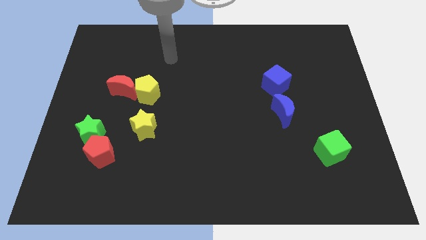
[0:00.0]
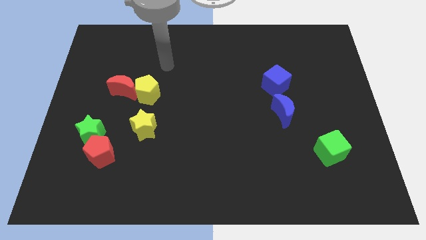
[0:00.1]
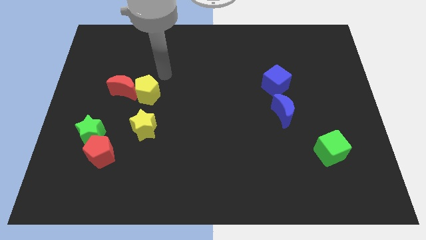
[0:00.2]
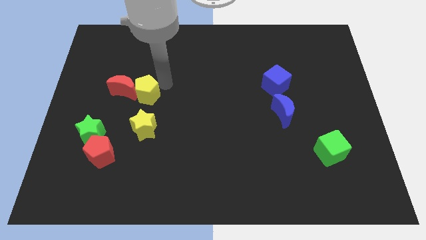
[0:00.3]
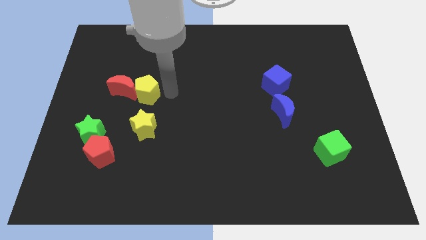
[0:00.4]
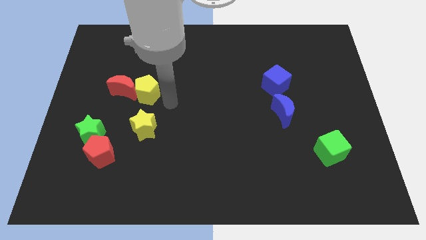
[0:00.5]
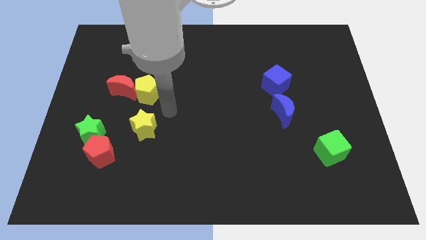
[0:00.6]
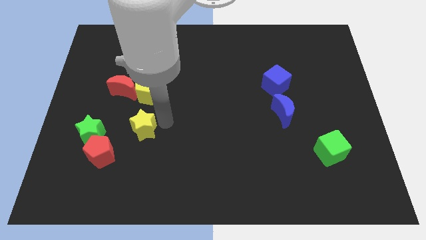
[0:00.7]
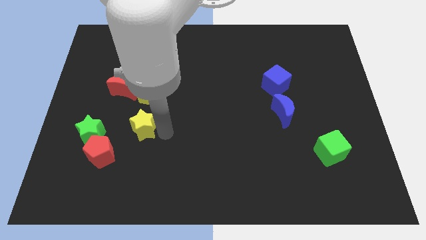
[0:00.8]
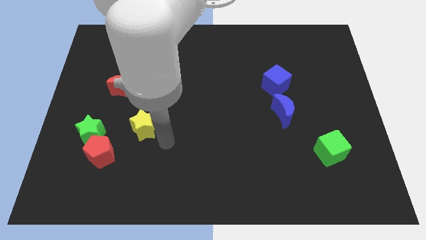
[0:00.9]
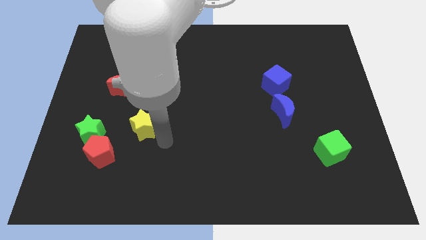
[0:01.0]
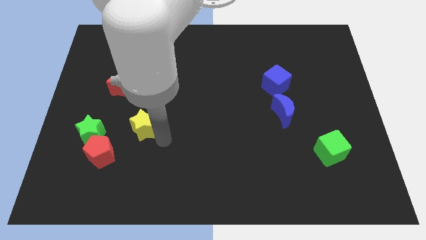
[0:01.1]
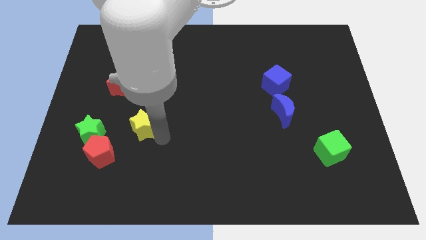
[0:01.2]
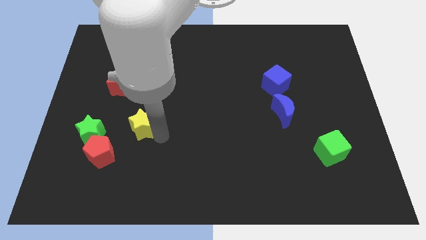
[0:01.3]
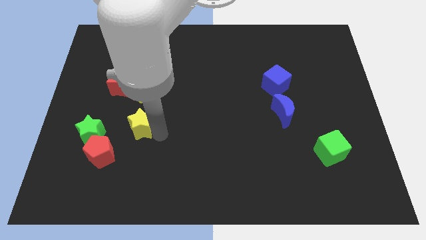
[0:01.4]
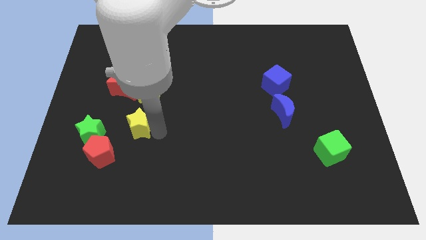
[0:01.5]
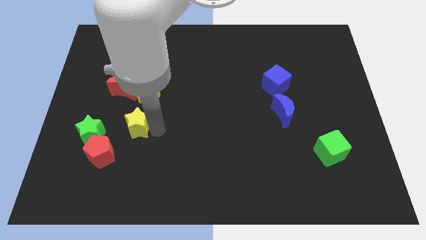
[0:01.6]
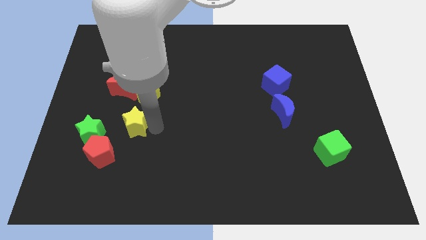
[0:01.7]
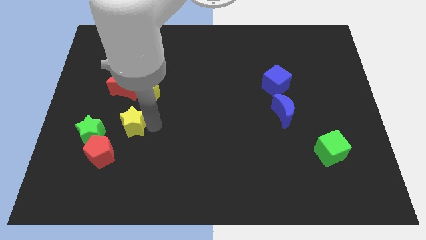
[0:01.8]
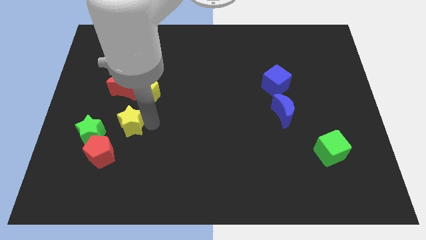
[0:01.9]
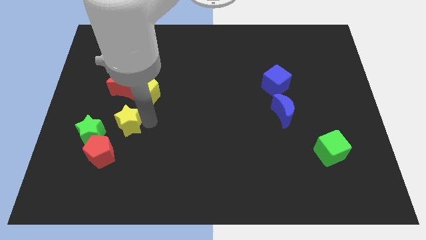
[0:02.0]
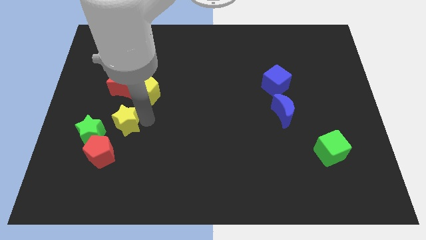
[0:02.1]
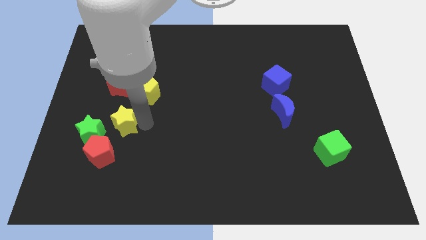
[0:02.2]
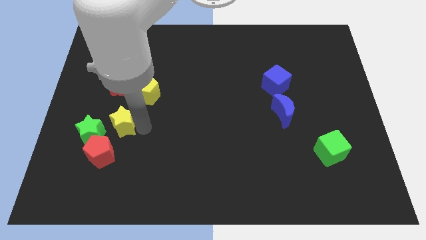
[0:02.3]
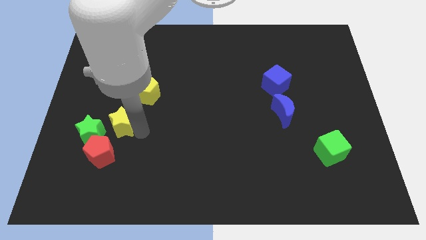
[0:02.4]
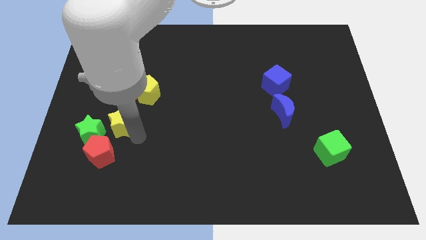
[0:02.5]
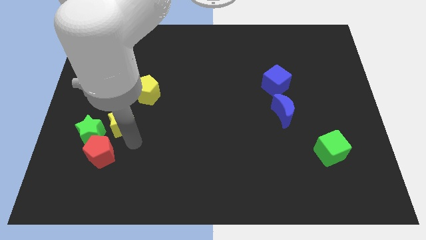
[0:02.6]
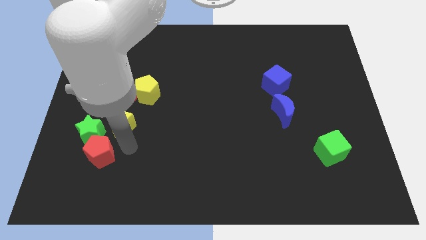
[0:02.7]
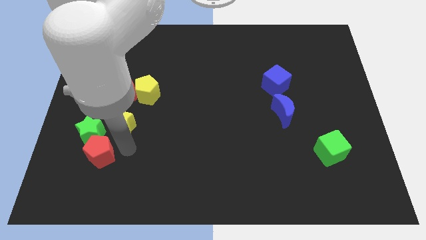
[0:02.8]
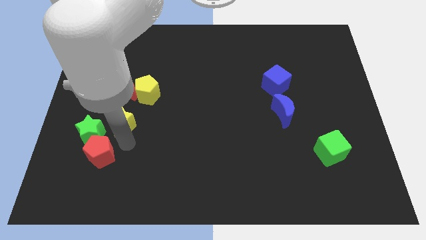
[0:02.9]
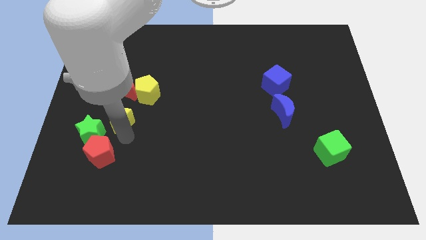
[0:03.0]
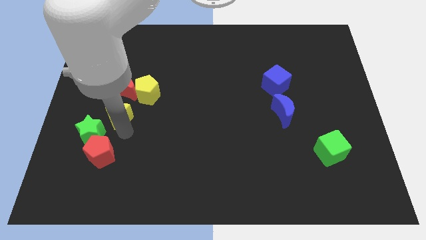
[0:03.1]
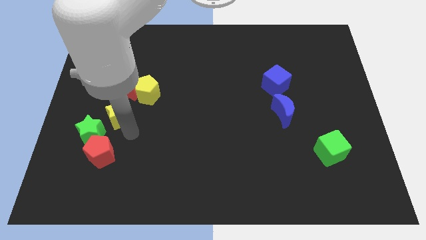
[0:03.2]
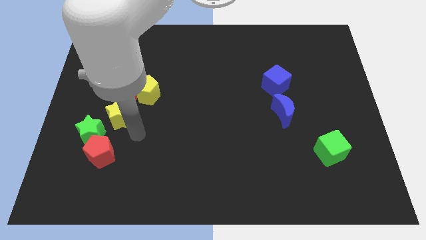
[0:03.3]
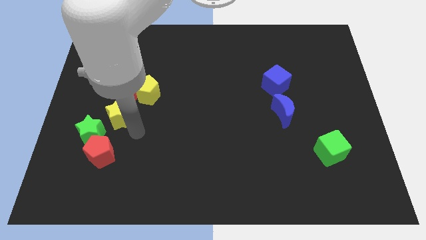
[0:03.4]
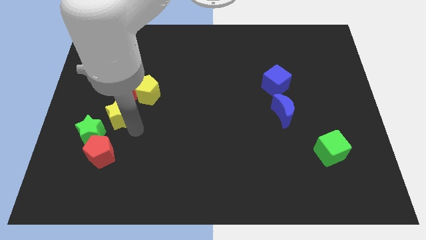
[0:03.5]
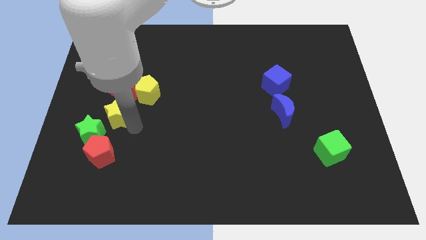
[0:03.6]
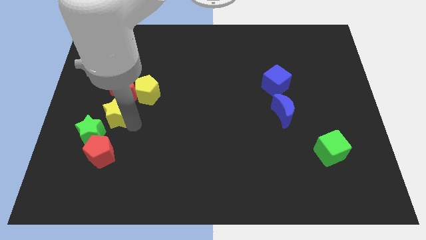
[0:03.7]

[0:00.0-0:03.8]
slide the yellow star a bit upwards and left

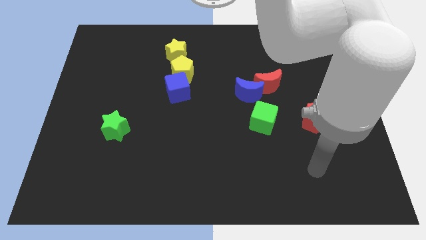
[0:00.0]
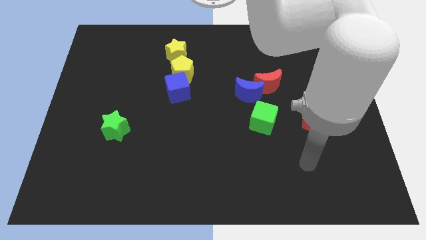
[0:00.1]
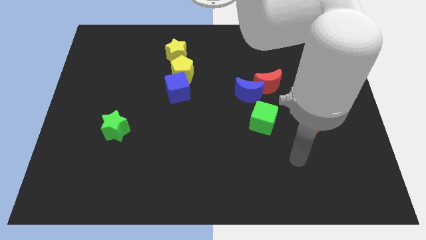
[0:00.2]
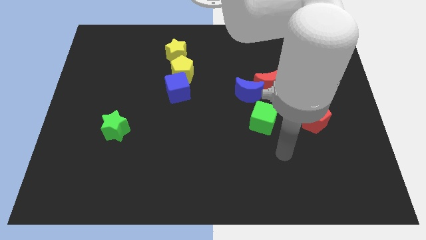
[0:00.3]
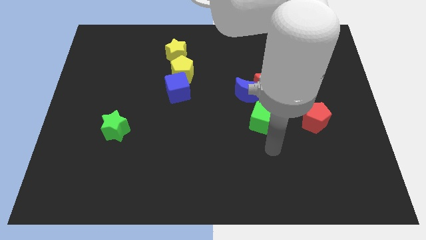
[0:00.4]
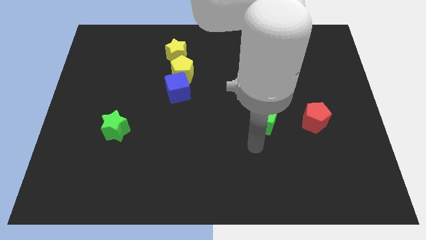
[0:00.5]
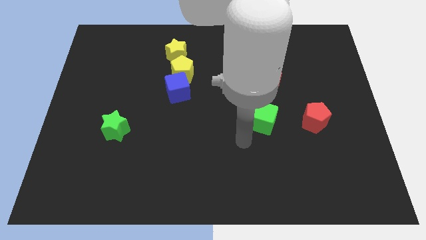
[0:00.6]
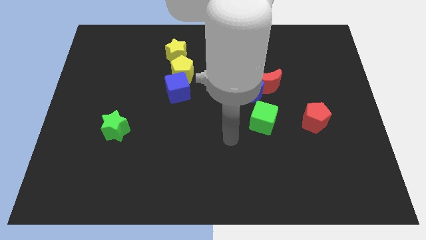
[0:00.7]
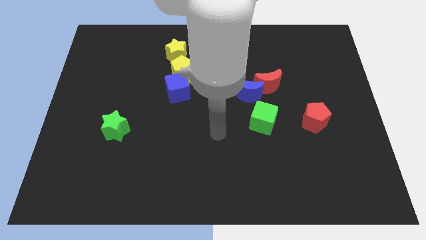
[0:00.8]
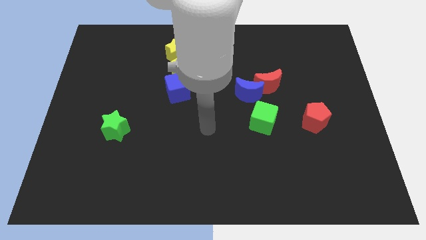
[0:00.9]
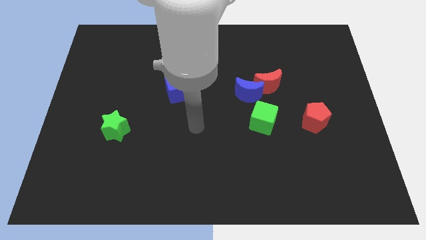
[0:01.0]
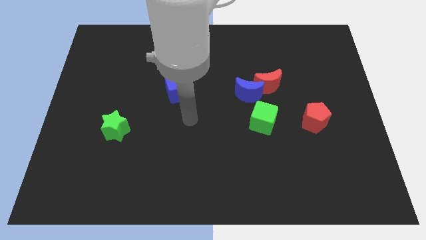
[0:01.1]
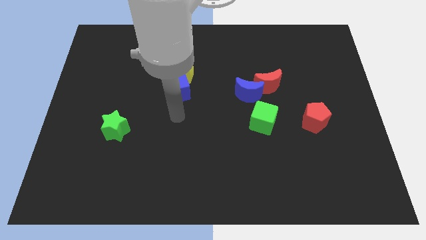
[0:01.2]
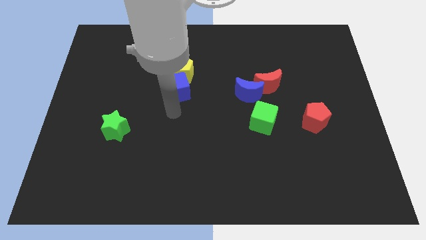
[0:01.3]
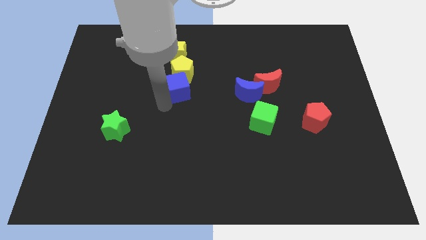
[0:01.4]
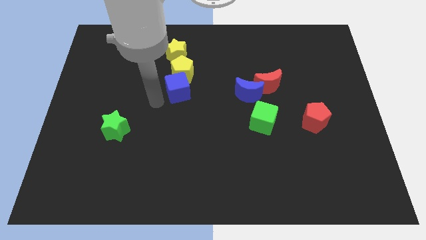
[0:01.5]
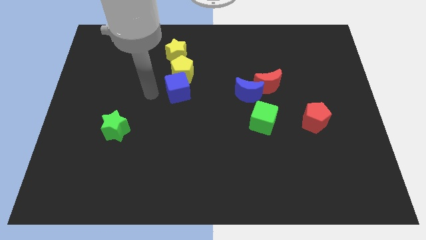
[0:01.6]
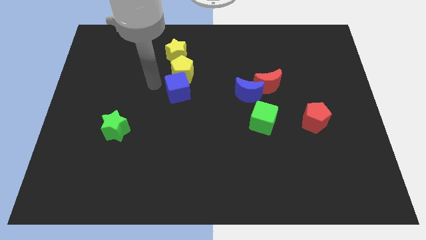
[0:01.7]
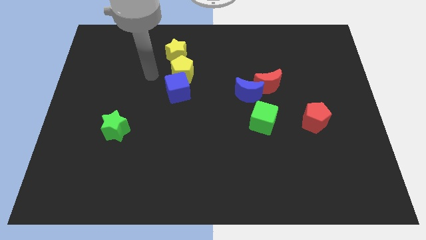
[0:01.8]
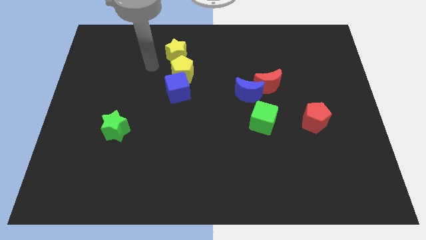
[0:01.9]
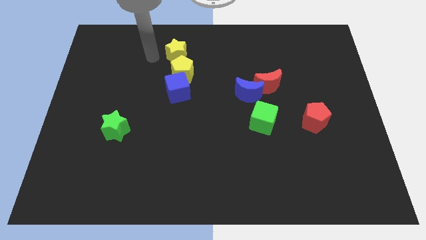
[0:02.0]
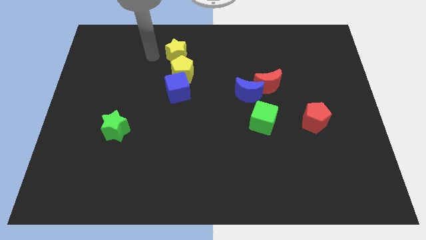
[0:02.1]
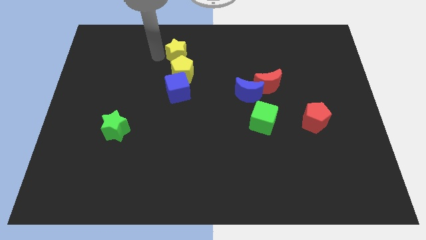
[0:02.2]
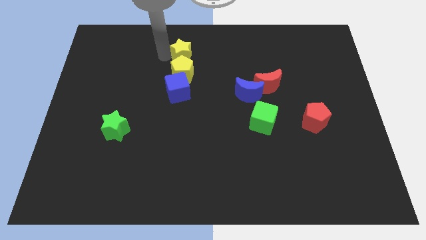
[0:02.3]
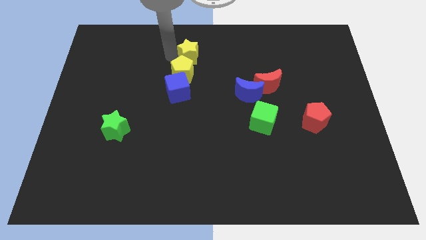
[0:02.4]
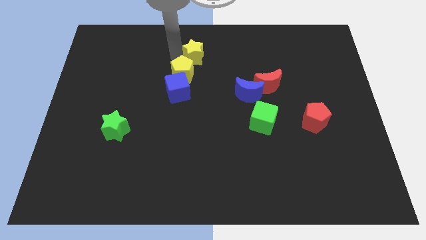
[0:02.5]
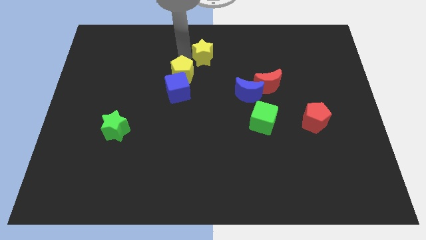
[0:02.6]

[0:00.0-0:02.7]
move the yellow star a bit to the right

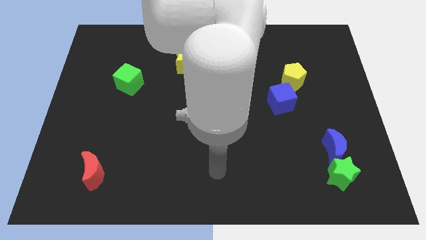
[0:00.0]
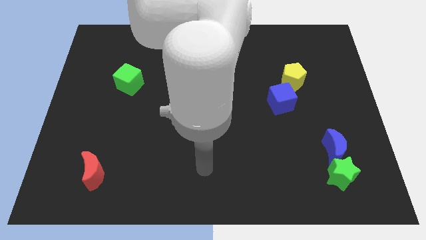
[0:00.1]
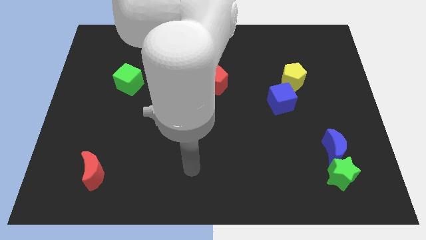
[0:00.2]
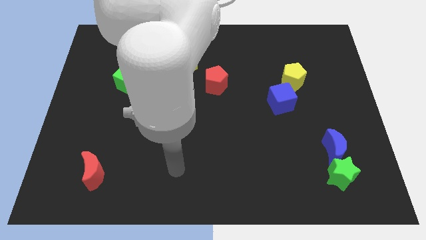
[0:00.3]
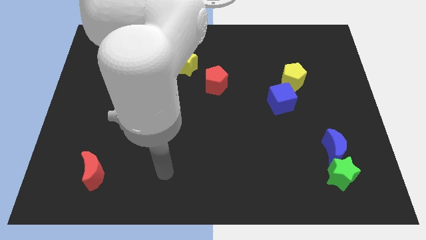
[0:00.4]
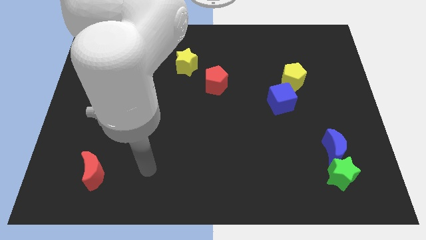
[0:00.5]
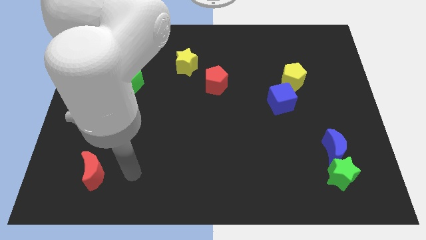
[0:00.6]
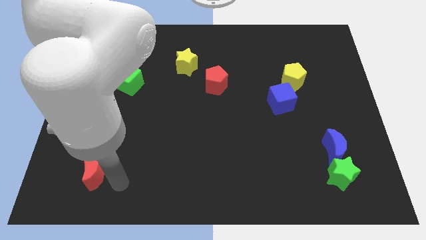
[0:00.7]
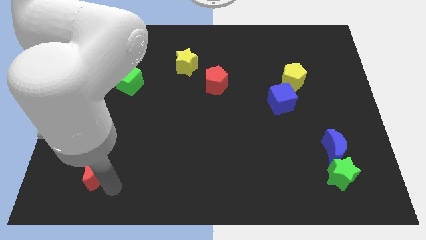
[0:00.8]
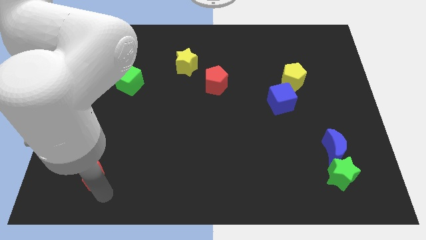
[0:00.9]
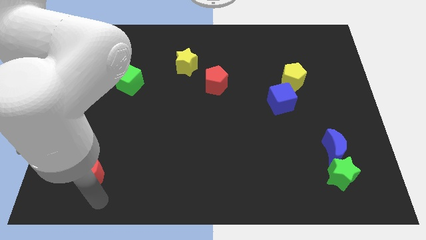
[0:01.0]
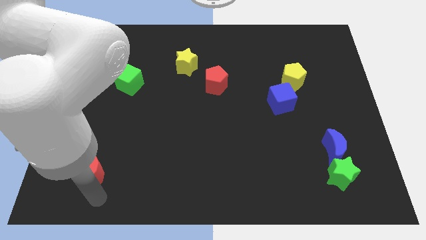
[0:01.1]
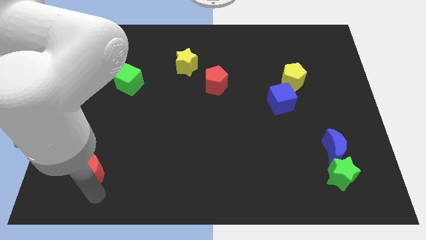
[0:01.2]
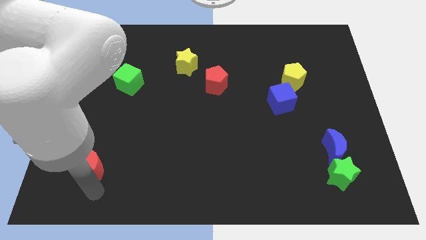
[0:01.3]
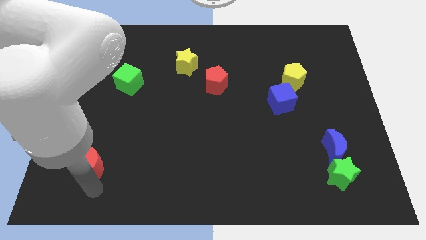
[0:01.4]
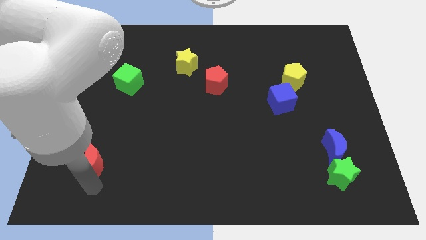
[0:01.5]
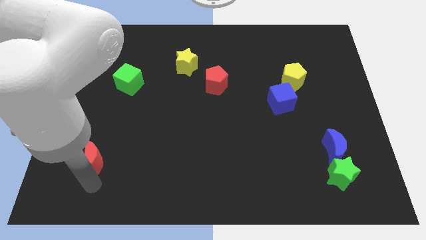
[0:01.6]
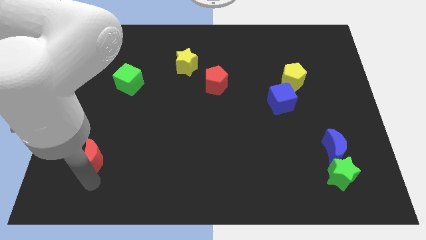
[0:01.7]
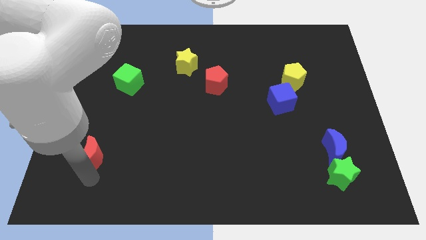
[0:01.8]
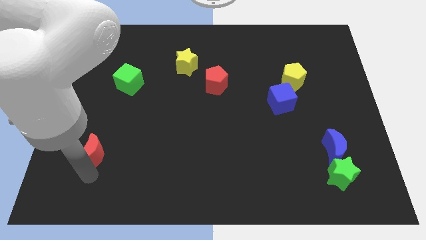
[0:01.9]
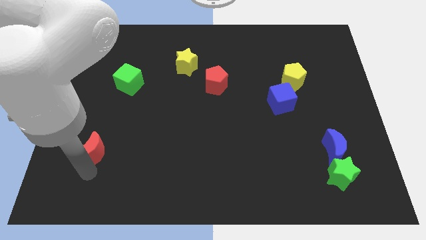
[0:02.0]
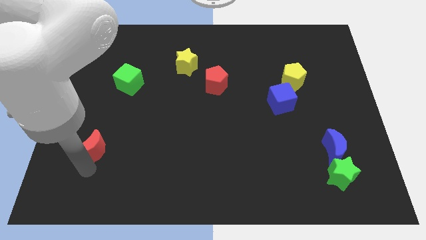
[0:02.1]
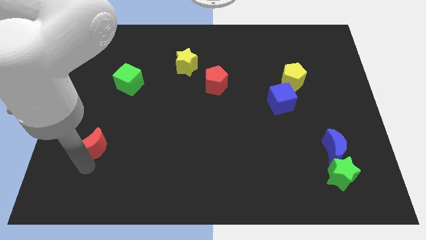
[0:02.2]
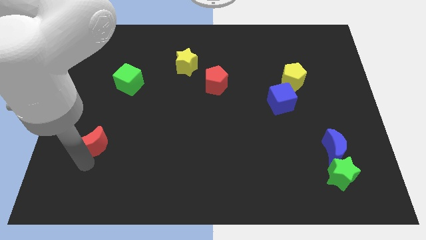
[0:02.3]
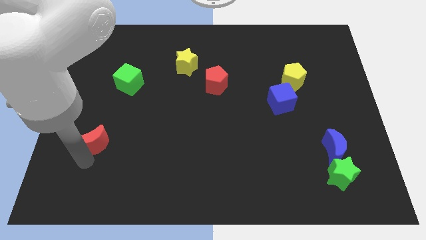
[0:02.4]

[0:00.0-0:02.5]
move the red moon slightly up
